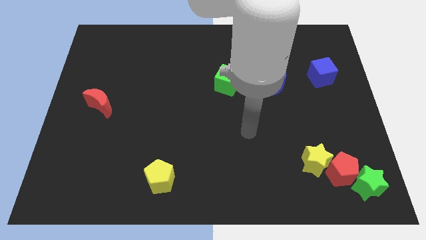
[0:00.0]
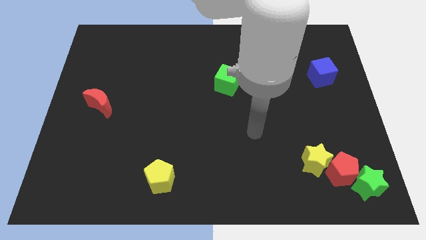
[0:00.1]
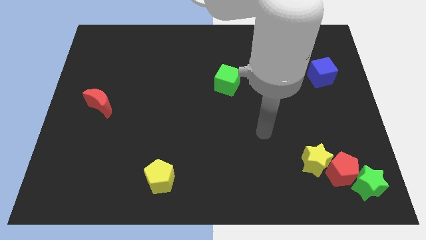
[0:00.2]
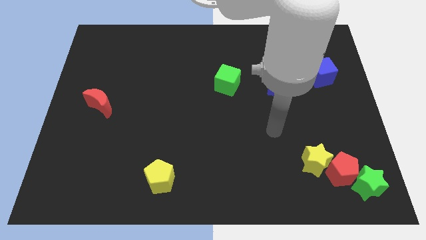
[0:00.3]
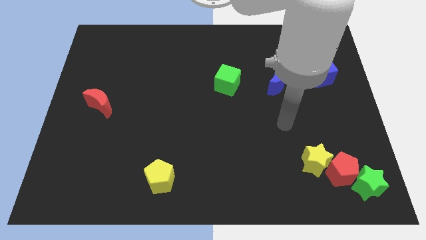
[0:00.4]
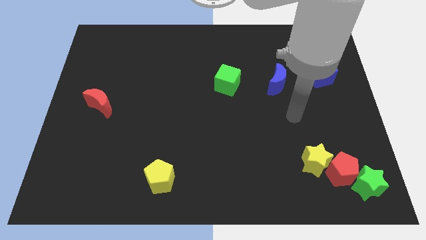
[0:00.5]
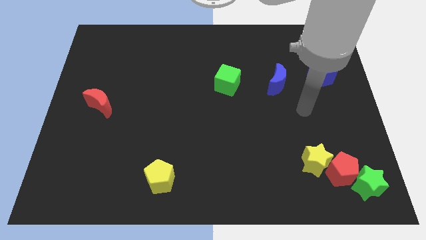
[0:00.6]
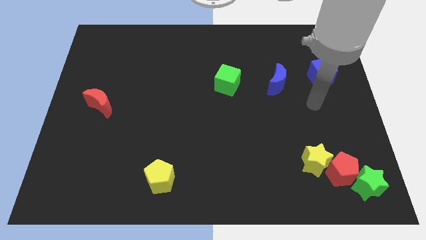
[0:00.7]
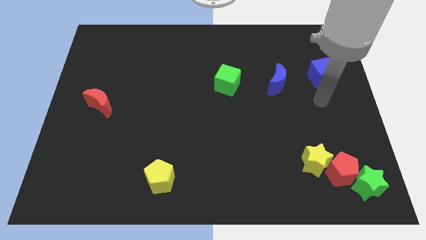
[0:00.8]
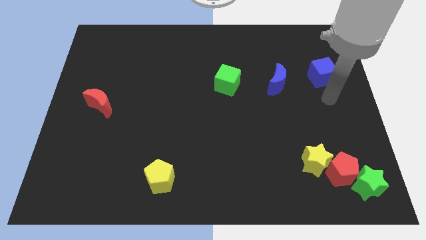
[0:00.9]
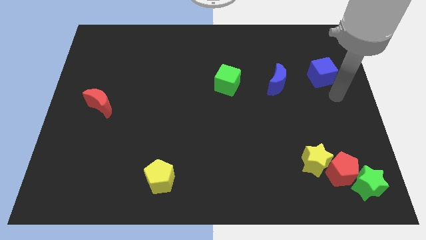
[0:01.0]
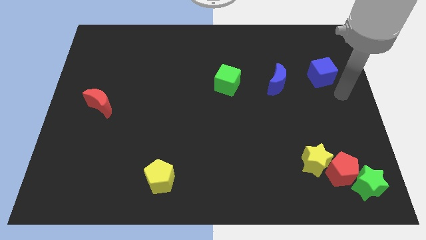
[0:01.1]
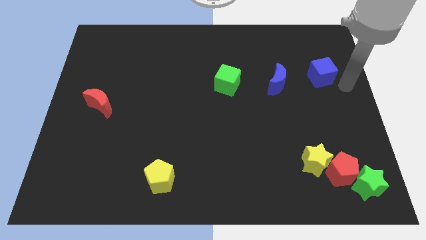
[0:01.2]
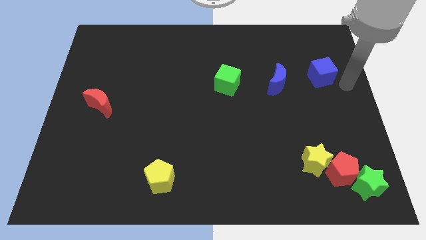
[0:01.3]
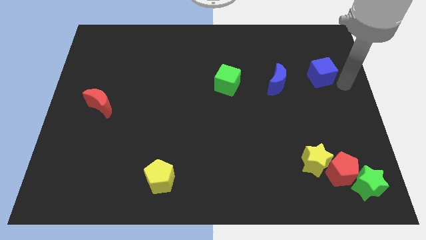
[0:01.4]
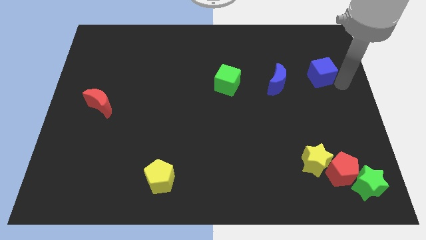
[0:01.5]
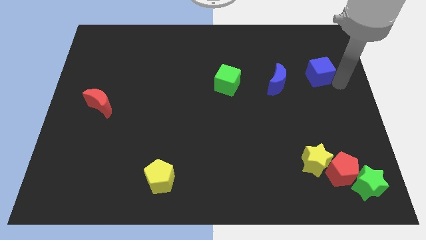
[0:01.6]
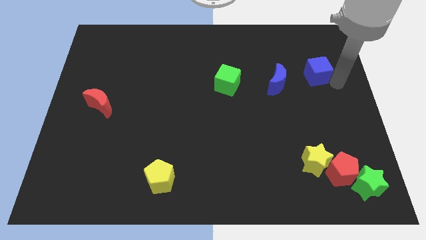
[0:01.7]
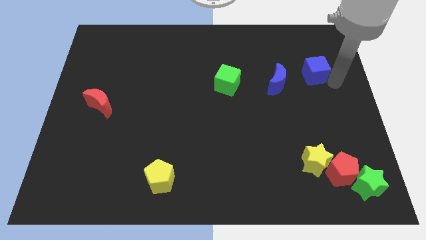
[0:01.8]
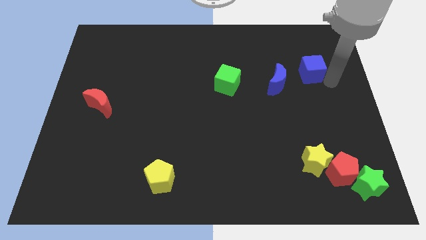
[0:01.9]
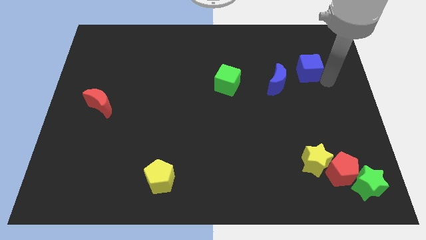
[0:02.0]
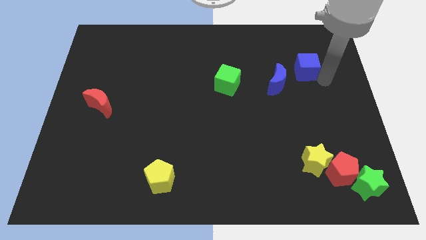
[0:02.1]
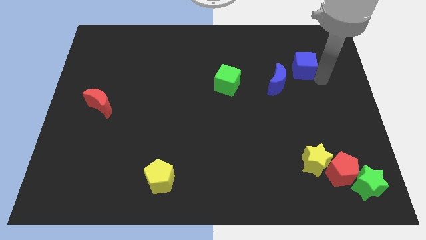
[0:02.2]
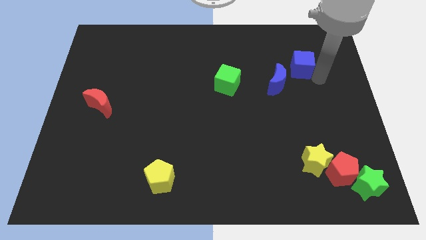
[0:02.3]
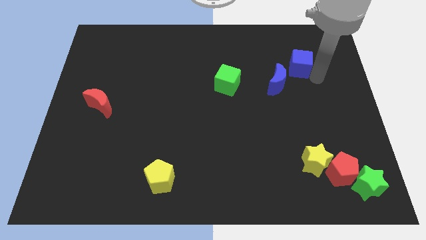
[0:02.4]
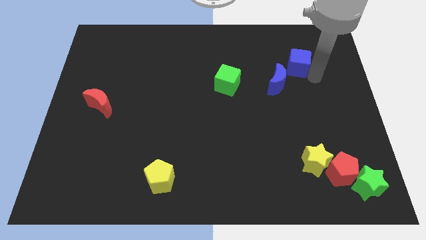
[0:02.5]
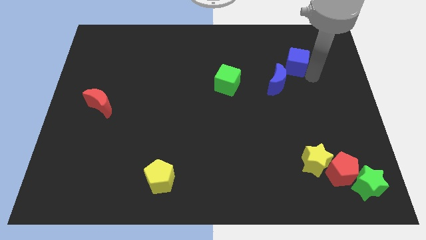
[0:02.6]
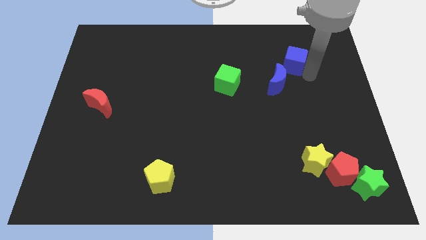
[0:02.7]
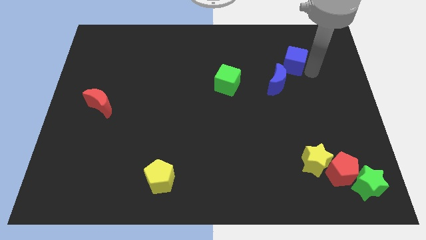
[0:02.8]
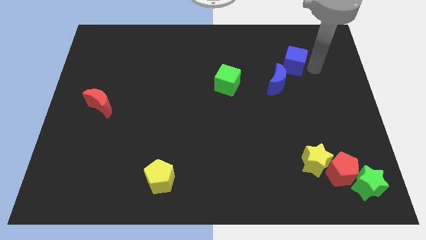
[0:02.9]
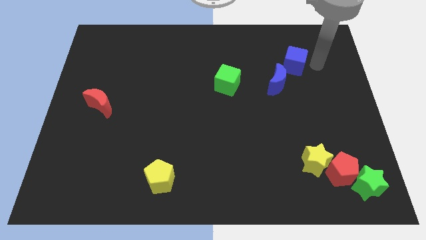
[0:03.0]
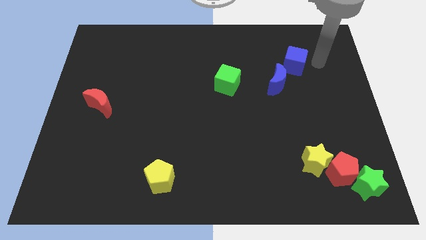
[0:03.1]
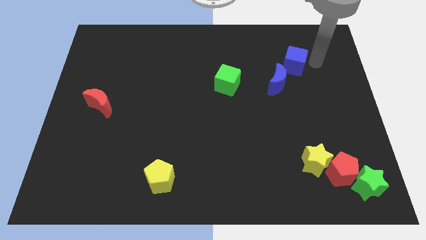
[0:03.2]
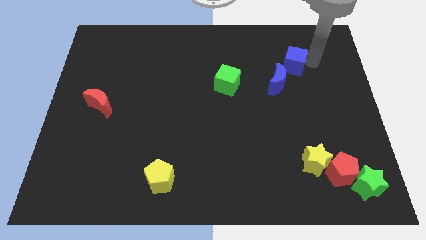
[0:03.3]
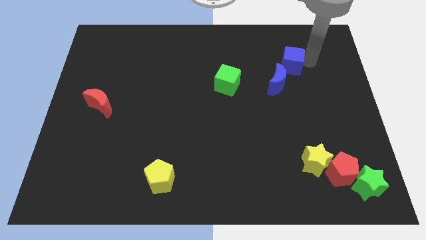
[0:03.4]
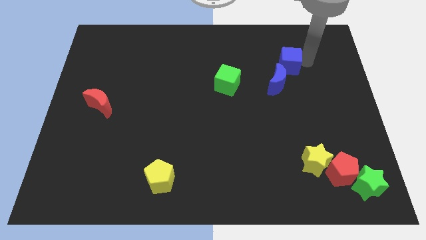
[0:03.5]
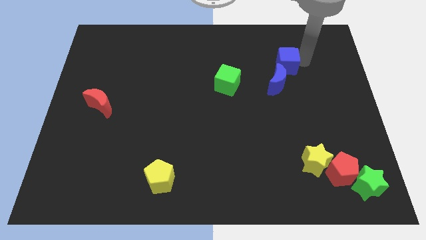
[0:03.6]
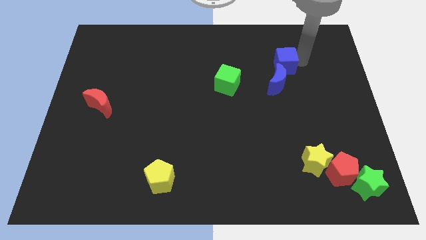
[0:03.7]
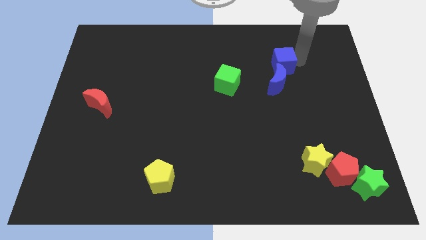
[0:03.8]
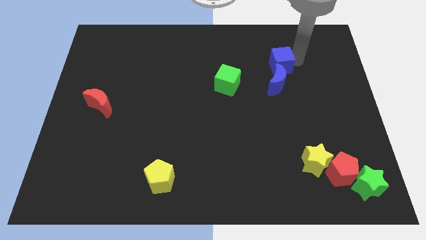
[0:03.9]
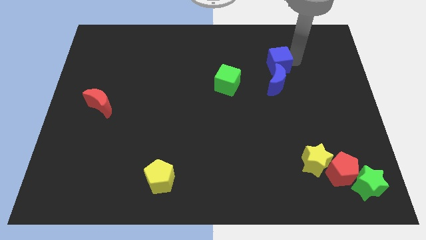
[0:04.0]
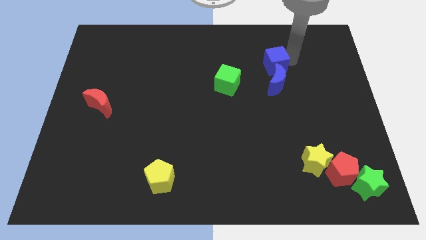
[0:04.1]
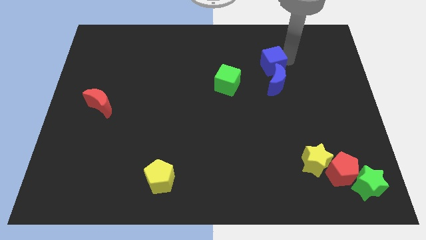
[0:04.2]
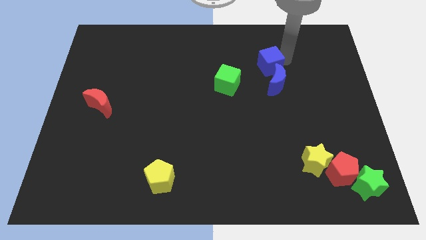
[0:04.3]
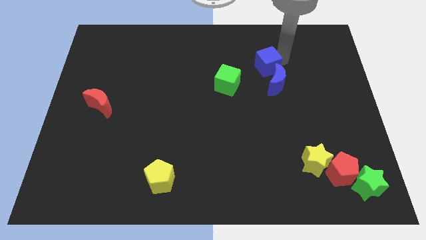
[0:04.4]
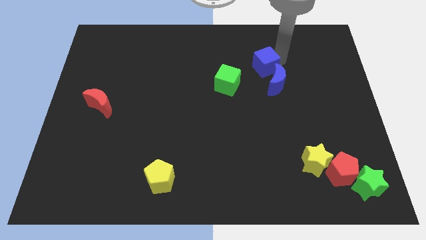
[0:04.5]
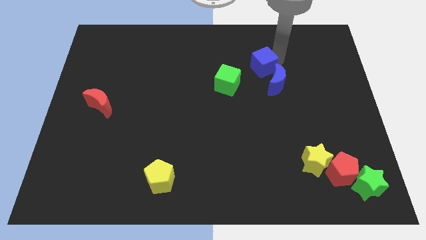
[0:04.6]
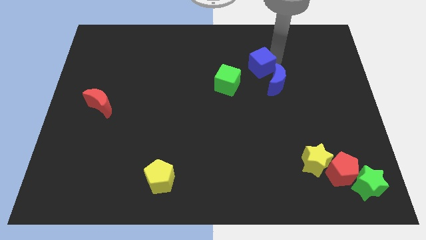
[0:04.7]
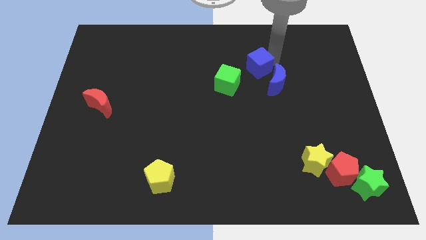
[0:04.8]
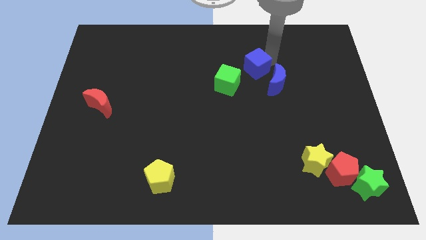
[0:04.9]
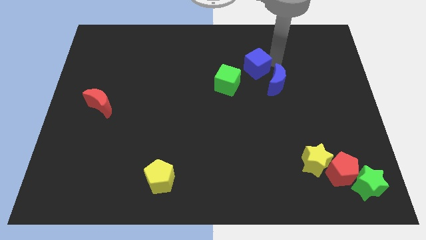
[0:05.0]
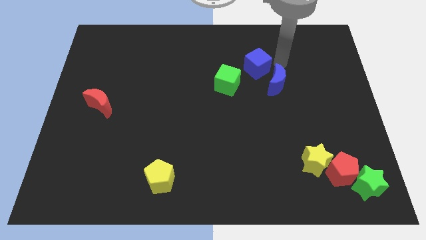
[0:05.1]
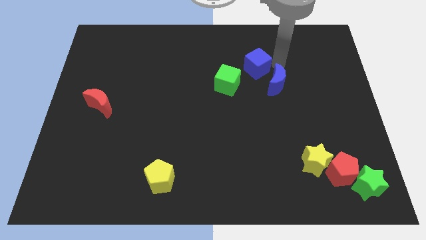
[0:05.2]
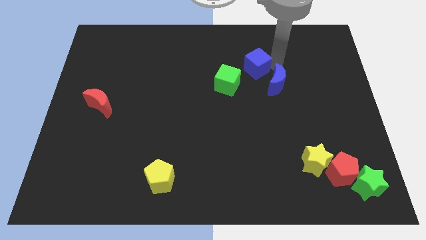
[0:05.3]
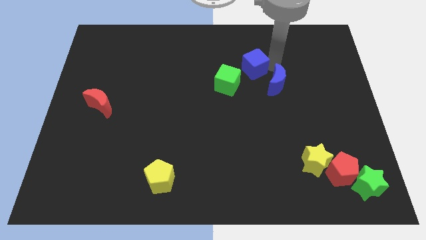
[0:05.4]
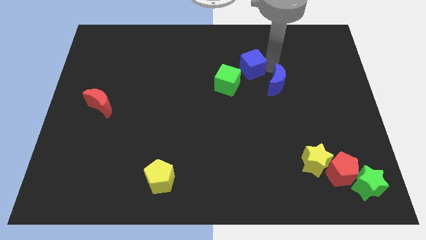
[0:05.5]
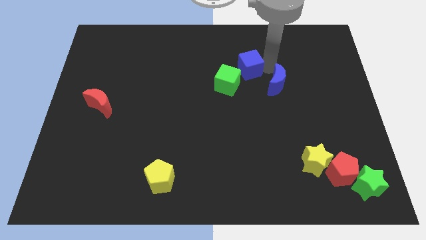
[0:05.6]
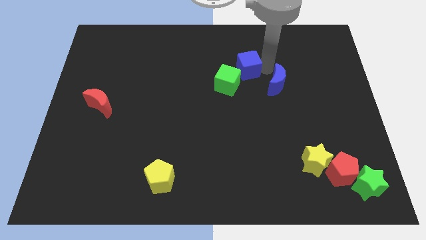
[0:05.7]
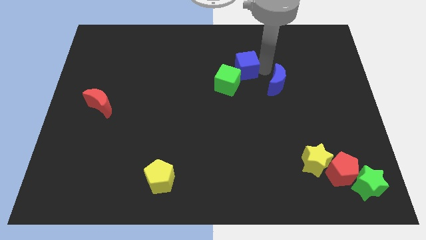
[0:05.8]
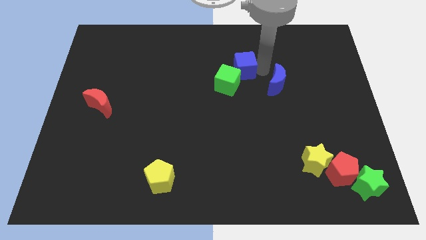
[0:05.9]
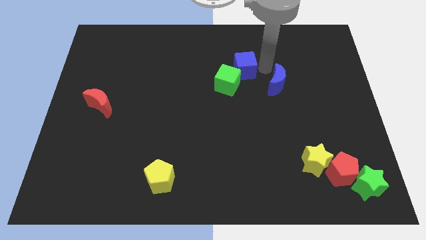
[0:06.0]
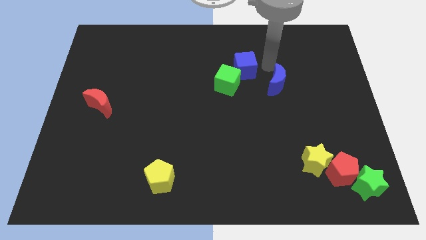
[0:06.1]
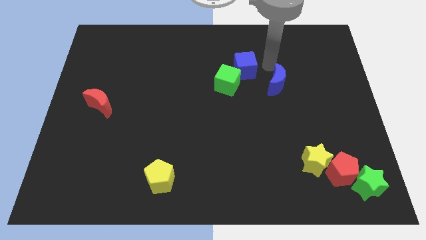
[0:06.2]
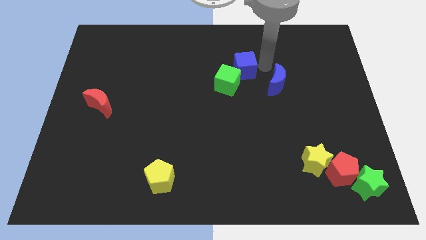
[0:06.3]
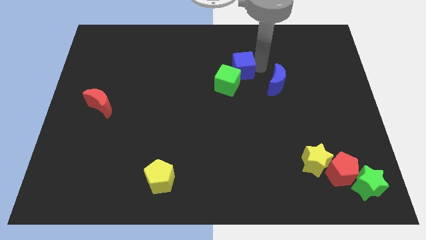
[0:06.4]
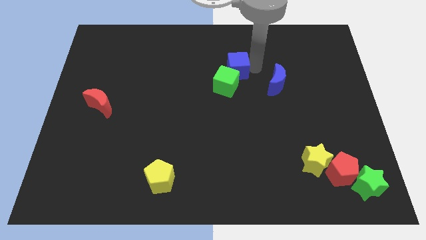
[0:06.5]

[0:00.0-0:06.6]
push the blue cube to the left

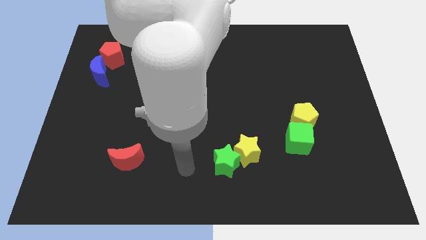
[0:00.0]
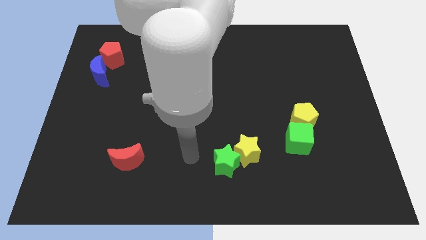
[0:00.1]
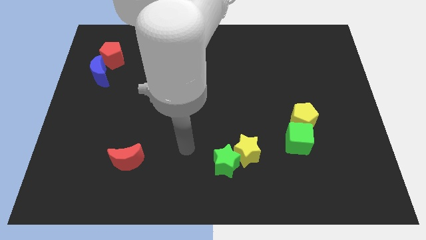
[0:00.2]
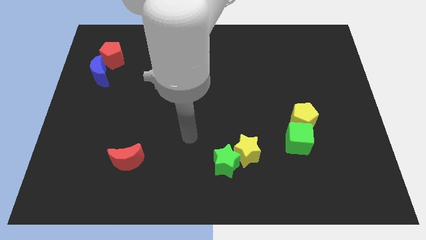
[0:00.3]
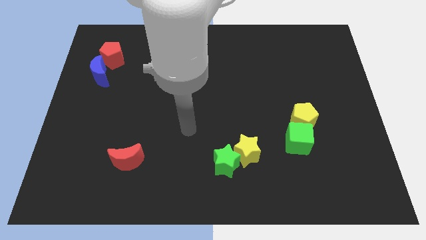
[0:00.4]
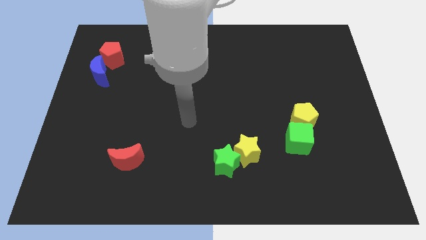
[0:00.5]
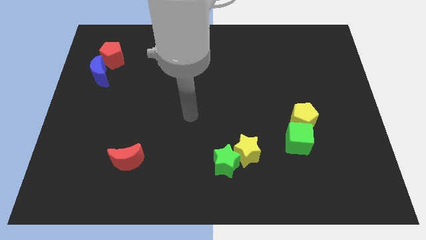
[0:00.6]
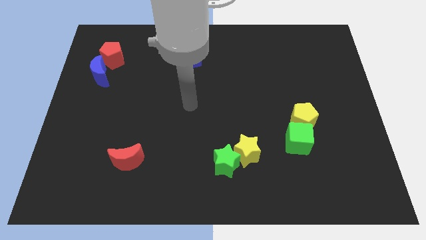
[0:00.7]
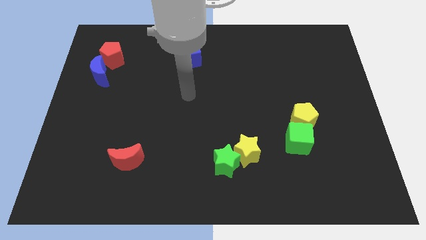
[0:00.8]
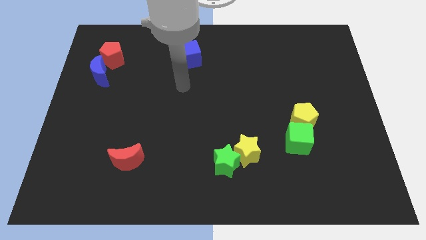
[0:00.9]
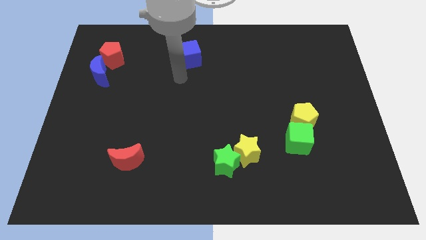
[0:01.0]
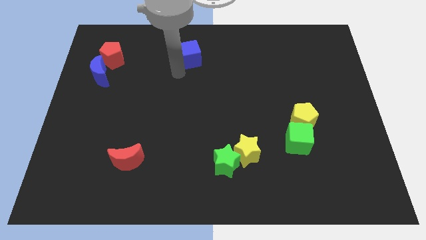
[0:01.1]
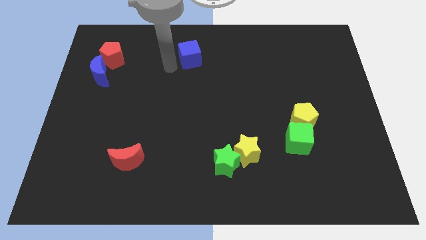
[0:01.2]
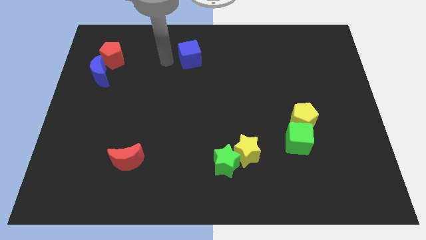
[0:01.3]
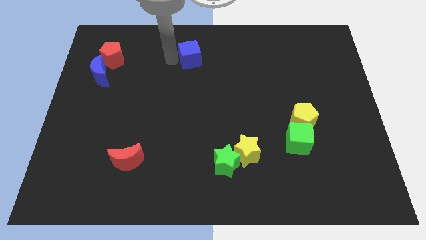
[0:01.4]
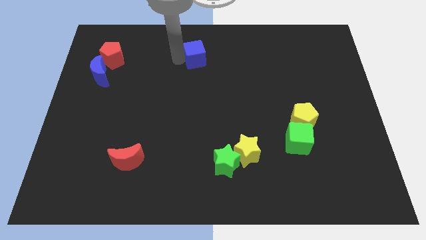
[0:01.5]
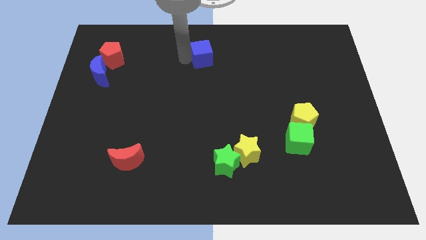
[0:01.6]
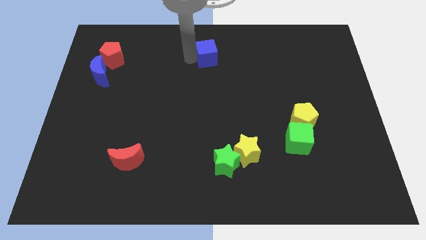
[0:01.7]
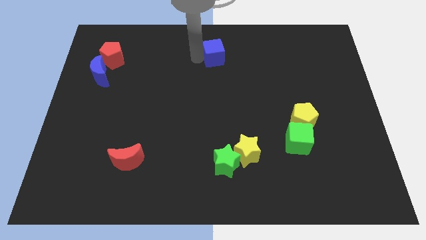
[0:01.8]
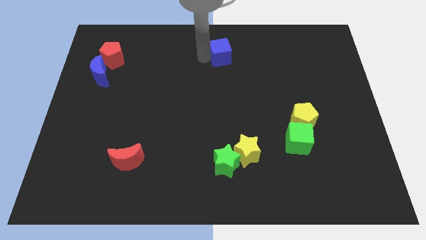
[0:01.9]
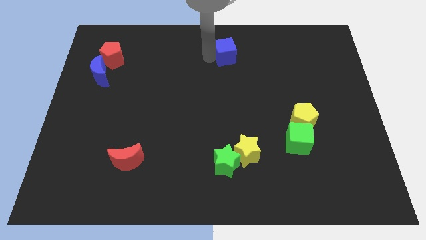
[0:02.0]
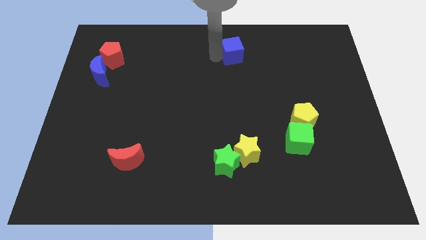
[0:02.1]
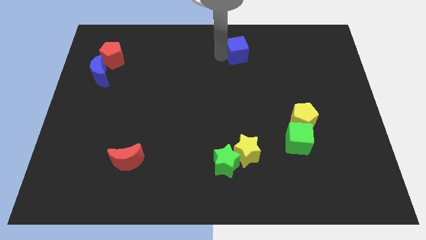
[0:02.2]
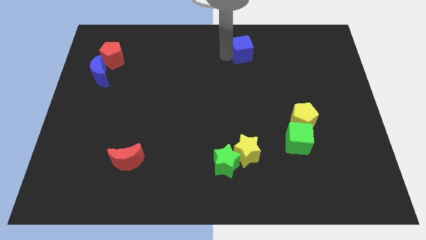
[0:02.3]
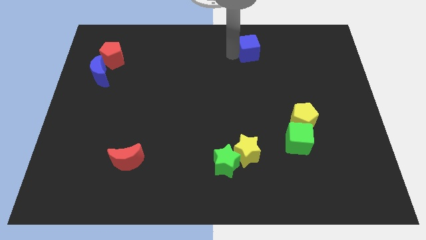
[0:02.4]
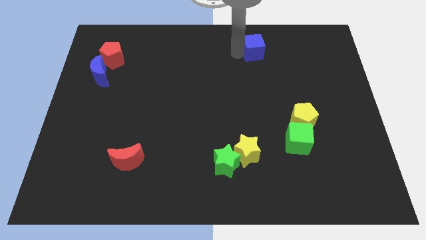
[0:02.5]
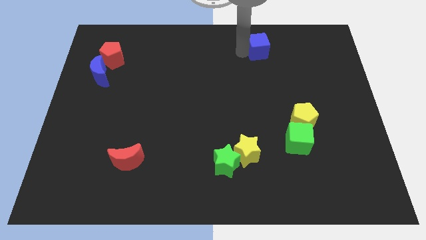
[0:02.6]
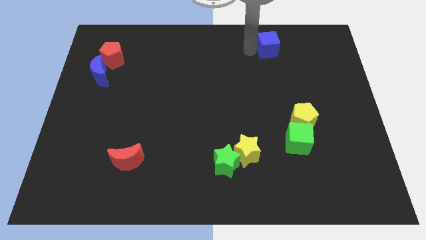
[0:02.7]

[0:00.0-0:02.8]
slide the blue cube right
